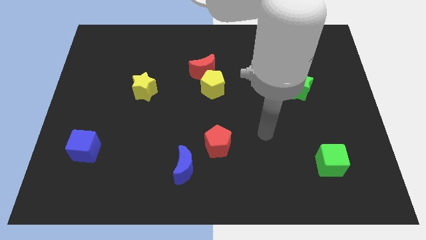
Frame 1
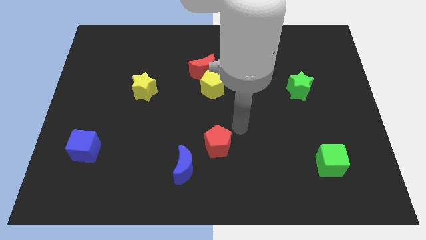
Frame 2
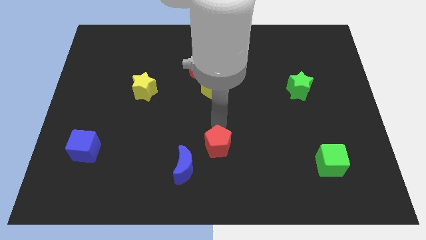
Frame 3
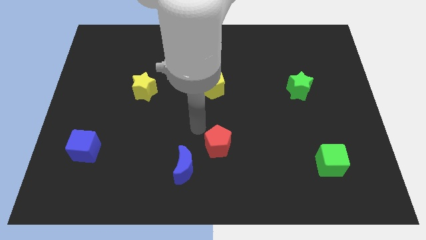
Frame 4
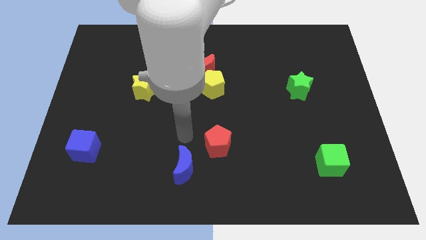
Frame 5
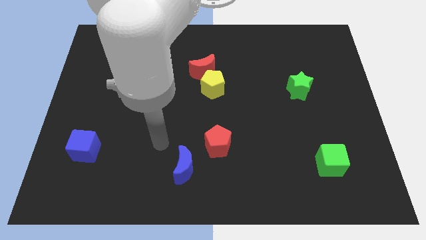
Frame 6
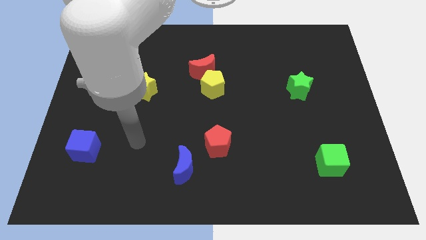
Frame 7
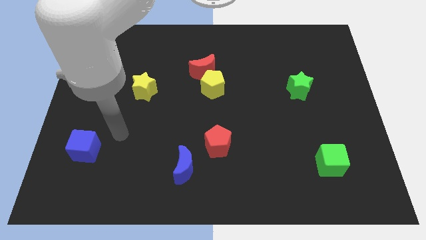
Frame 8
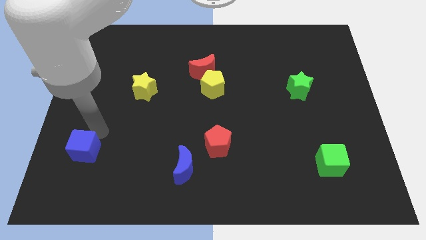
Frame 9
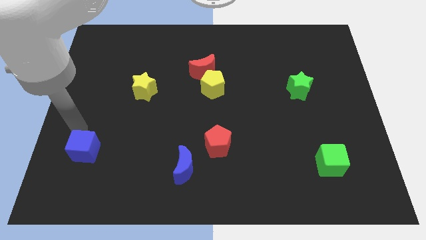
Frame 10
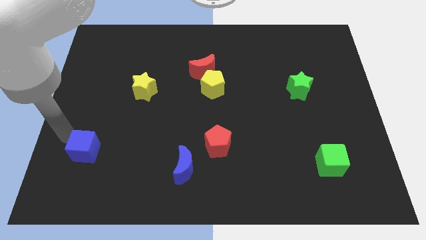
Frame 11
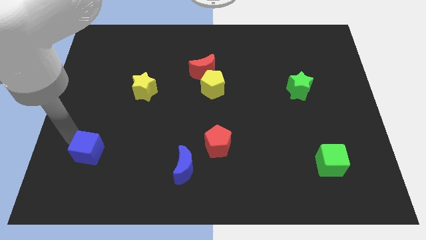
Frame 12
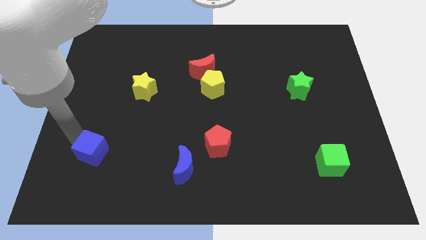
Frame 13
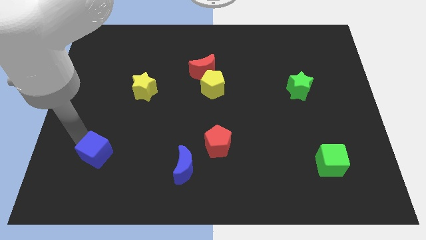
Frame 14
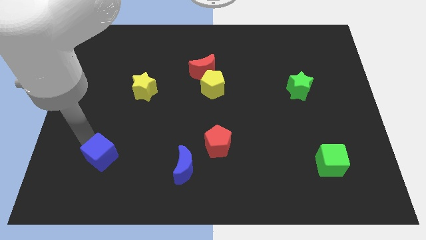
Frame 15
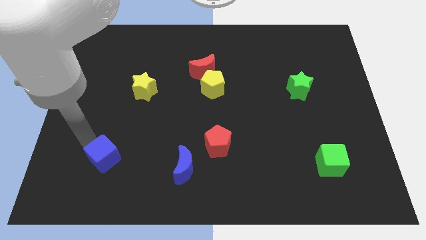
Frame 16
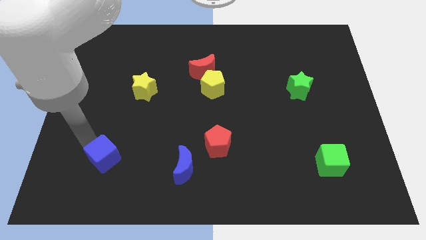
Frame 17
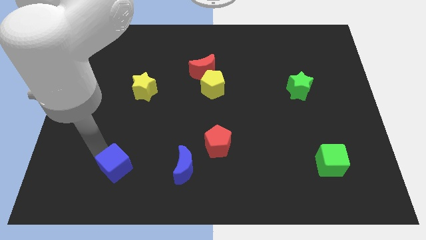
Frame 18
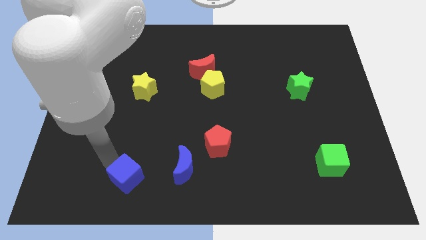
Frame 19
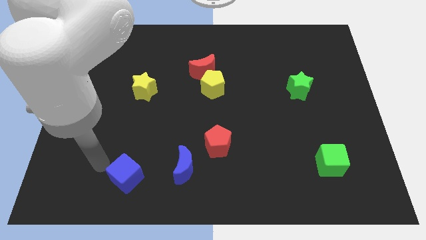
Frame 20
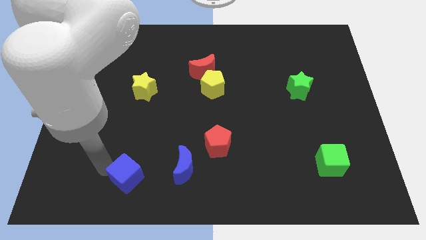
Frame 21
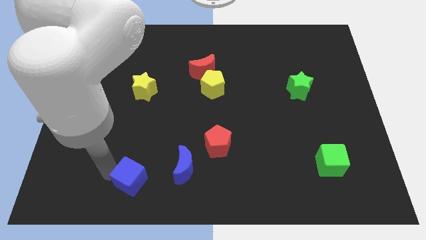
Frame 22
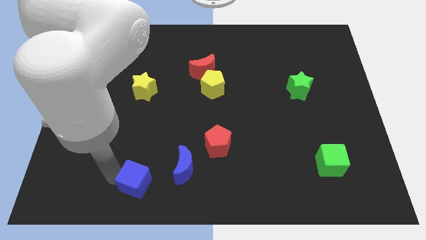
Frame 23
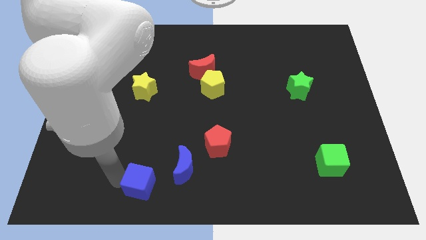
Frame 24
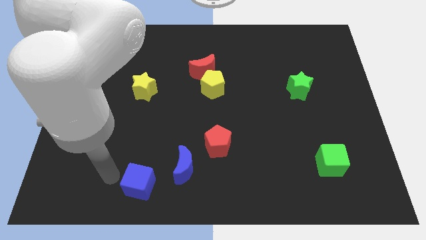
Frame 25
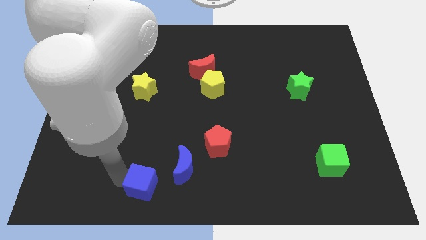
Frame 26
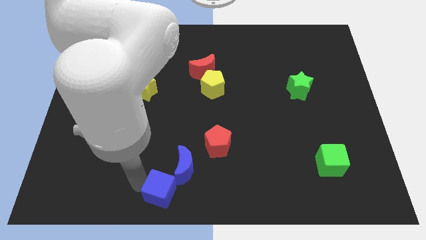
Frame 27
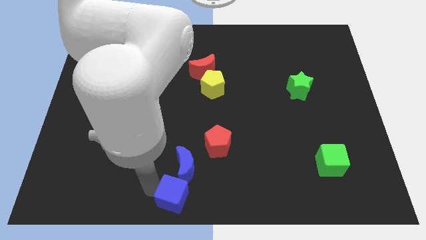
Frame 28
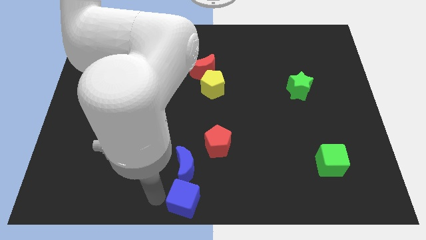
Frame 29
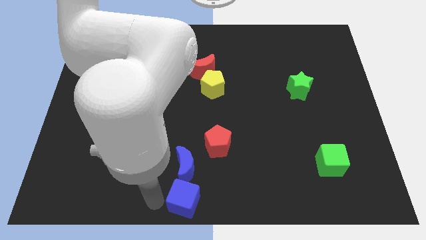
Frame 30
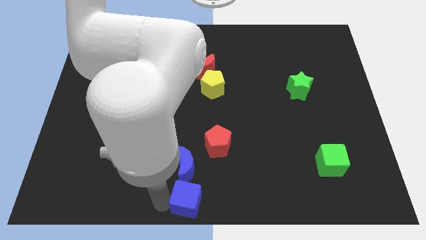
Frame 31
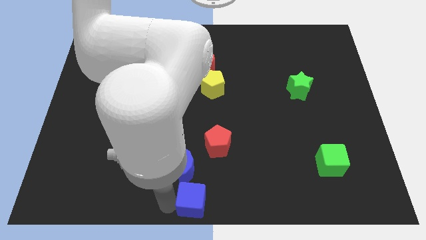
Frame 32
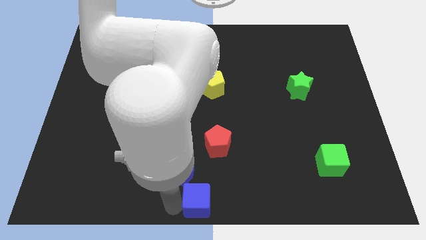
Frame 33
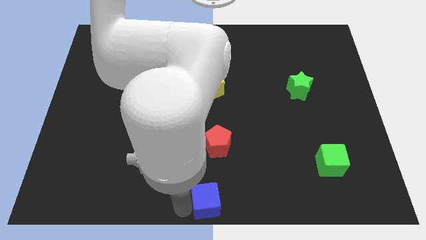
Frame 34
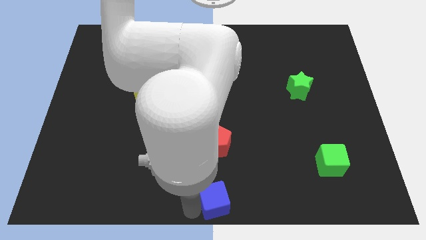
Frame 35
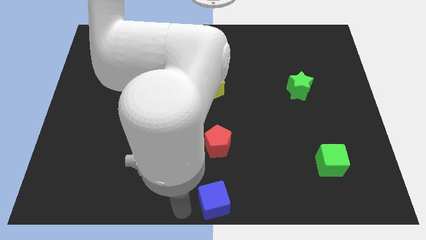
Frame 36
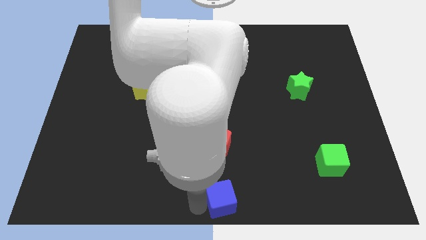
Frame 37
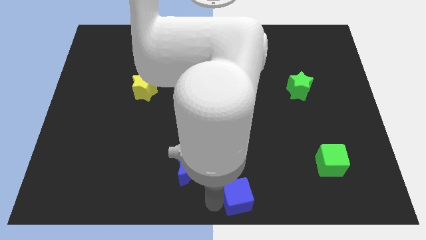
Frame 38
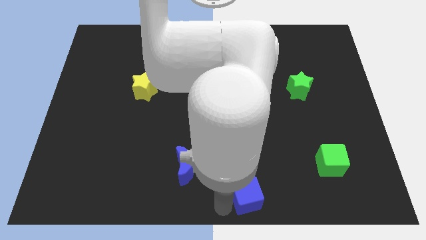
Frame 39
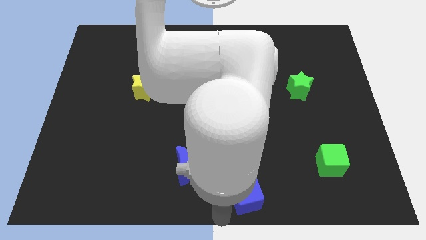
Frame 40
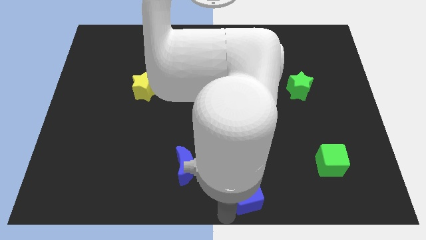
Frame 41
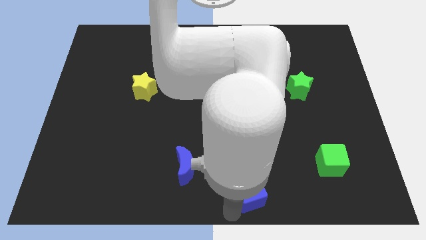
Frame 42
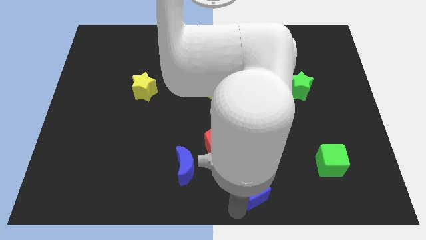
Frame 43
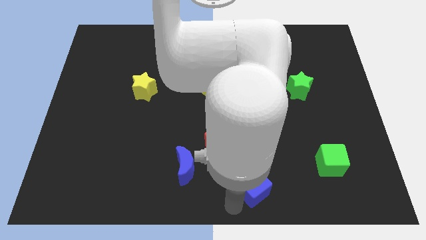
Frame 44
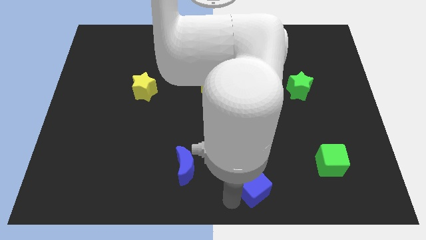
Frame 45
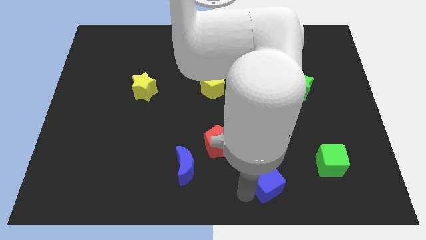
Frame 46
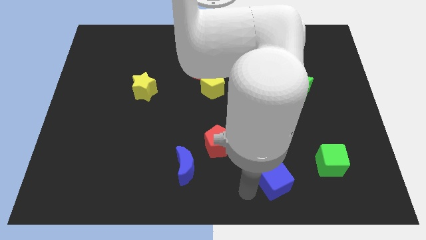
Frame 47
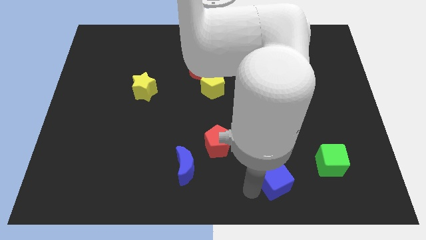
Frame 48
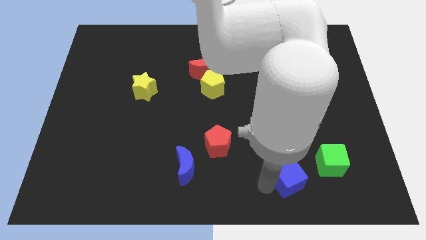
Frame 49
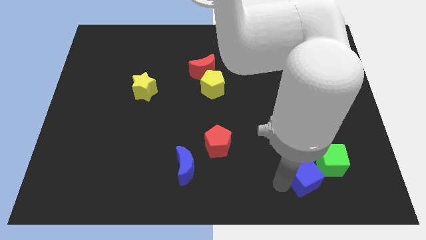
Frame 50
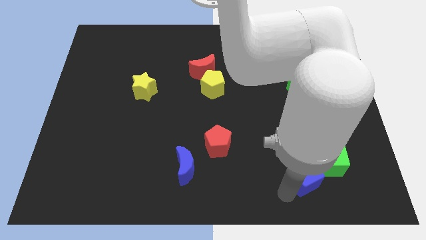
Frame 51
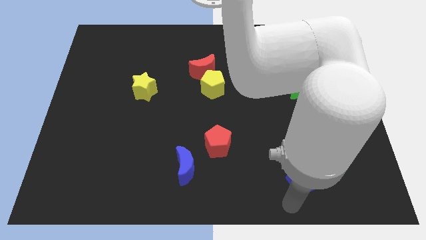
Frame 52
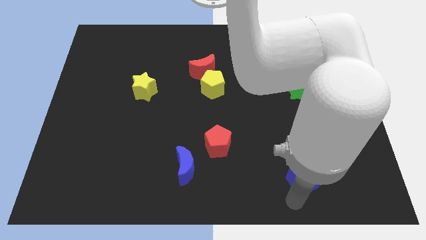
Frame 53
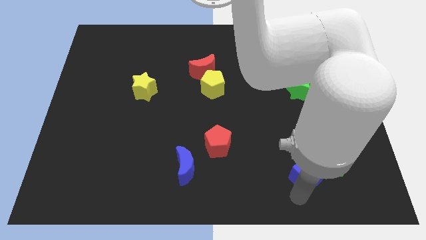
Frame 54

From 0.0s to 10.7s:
put the blue cube next to the green cube

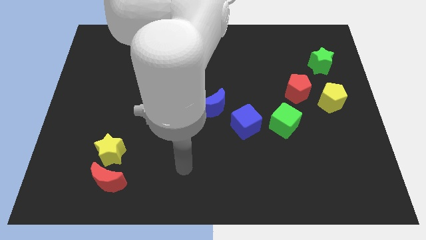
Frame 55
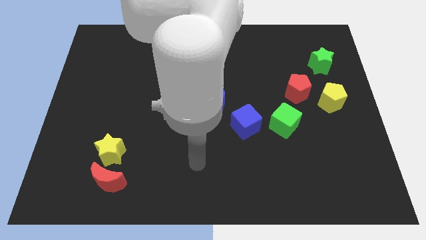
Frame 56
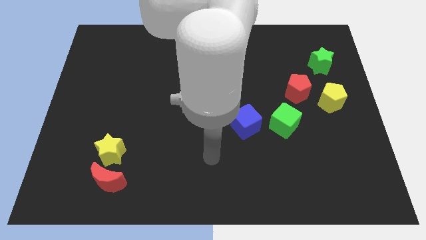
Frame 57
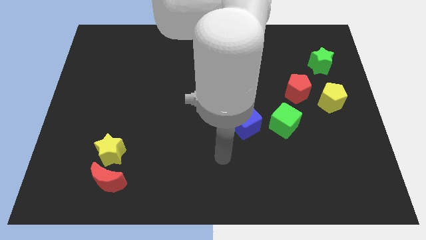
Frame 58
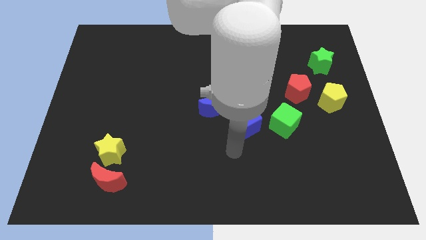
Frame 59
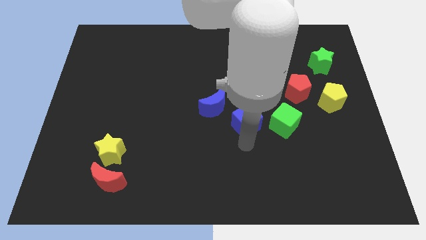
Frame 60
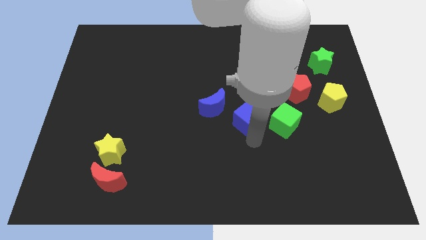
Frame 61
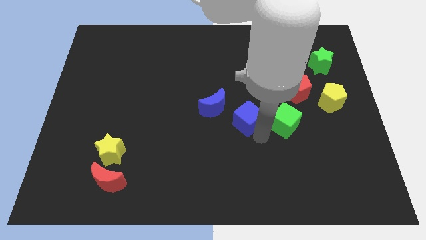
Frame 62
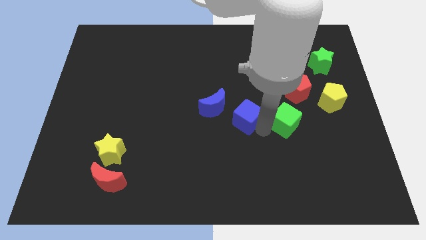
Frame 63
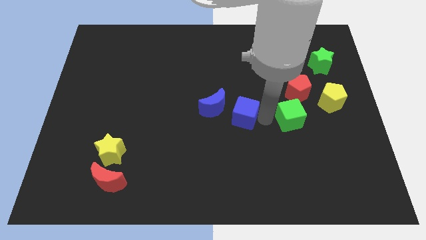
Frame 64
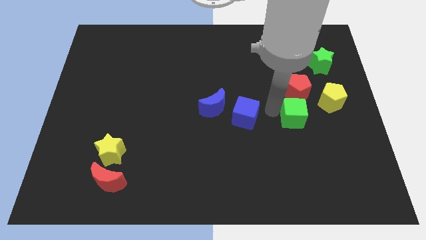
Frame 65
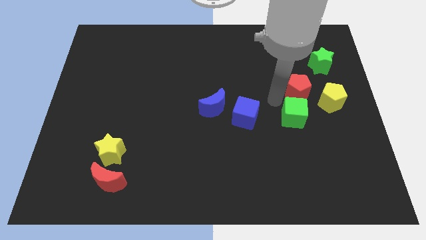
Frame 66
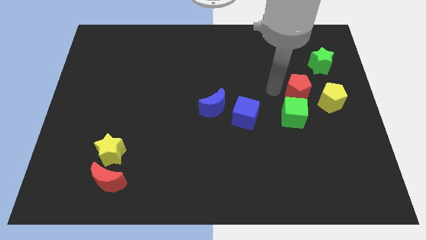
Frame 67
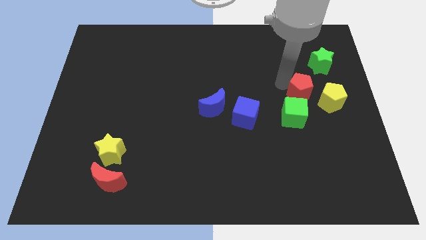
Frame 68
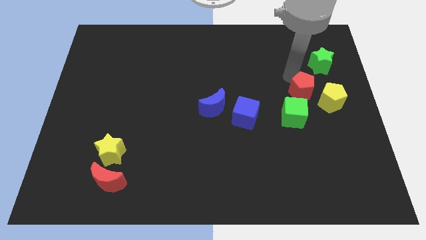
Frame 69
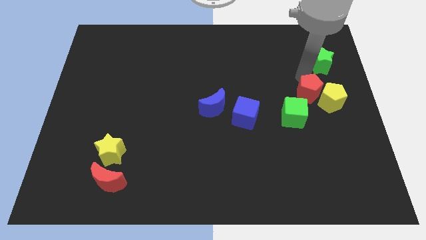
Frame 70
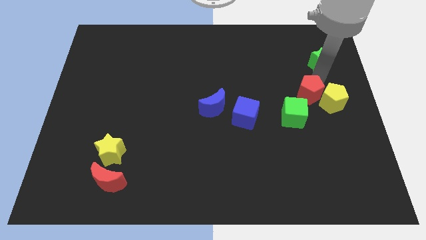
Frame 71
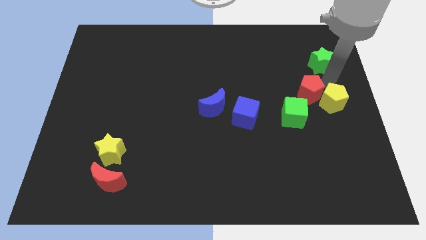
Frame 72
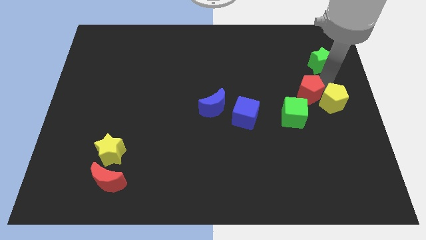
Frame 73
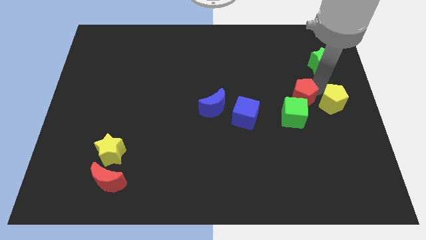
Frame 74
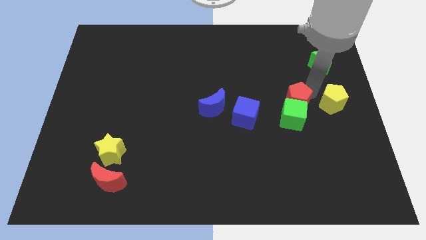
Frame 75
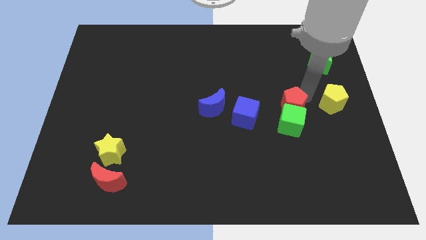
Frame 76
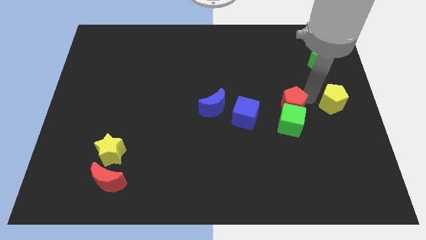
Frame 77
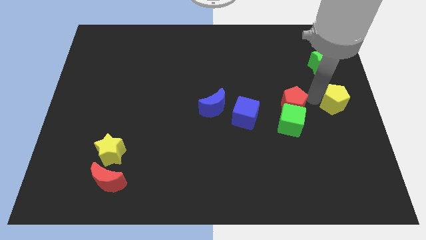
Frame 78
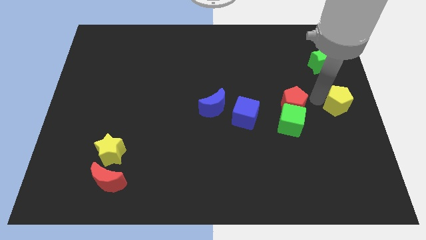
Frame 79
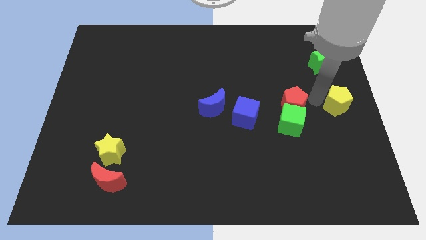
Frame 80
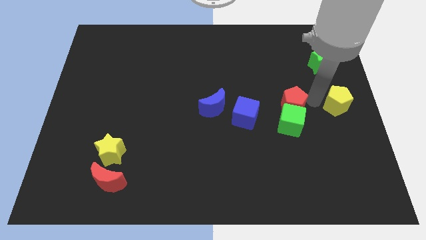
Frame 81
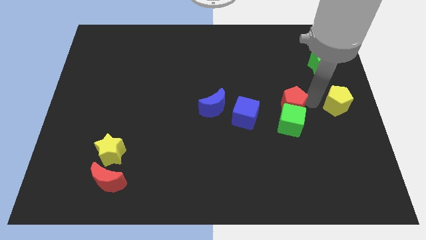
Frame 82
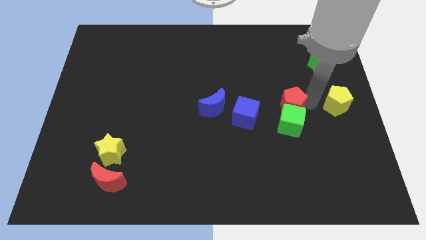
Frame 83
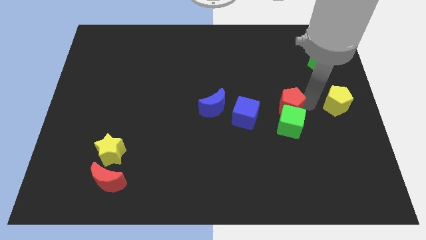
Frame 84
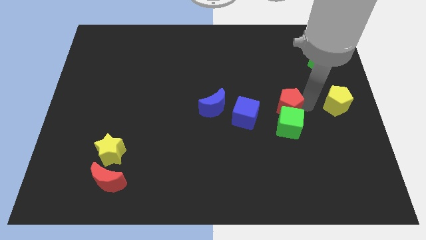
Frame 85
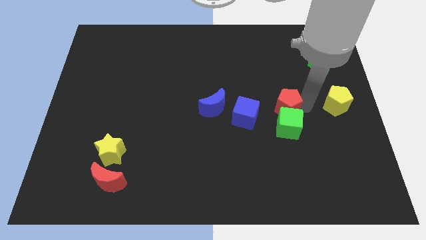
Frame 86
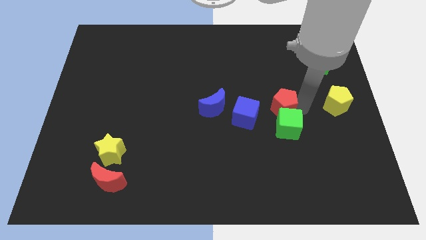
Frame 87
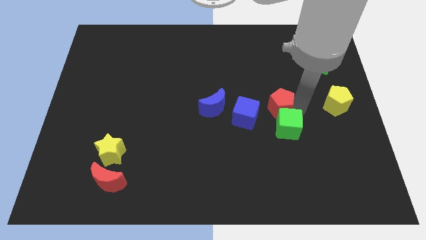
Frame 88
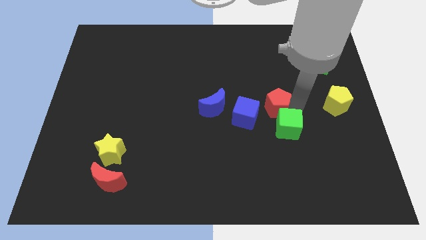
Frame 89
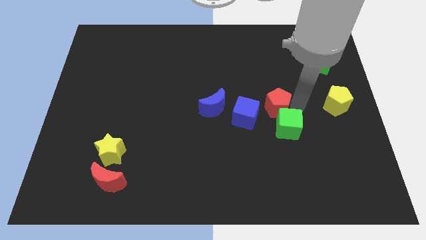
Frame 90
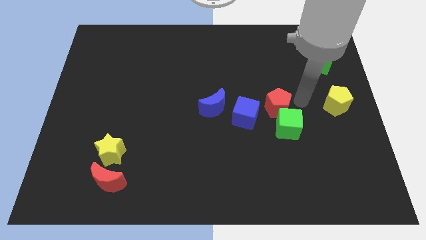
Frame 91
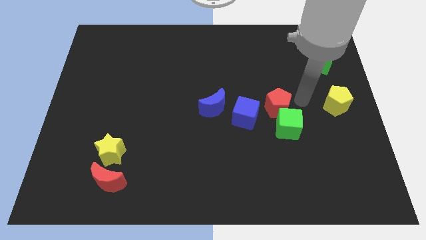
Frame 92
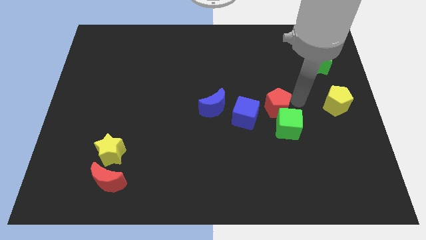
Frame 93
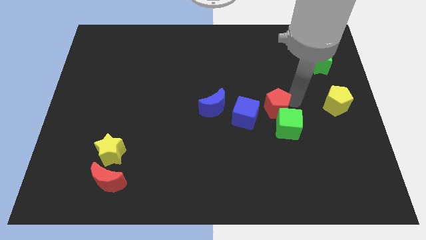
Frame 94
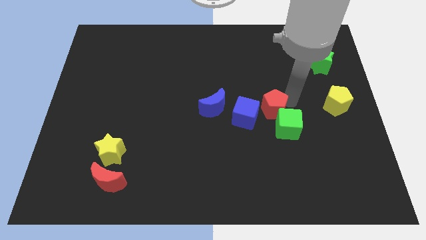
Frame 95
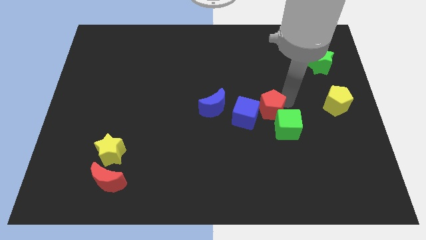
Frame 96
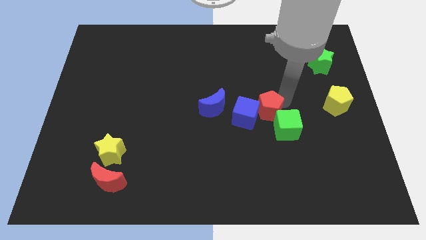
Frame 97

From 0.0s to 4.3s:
put the red pentagon close to the blue cube
